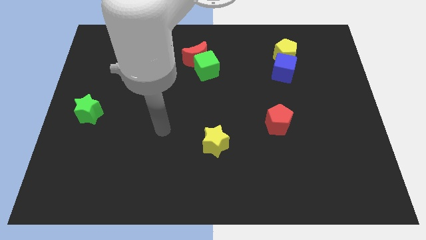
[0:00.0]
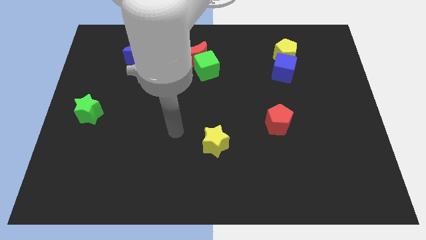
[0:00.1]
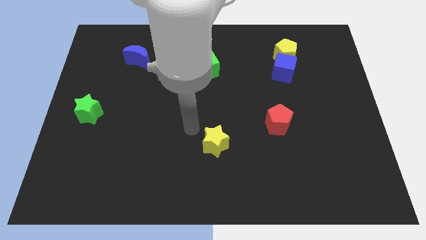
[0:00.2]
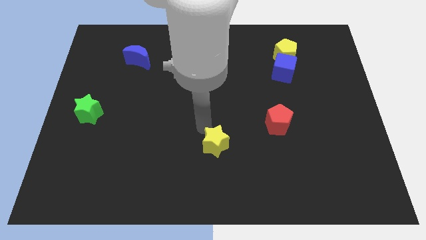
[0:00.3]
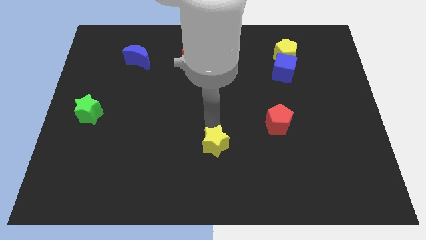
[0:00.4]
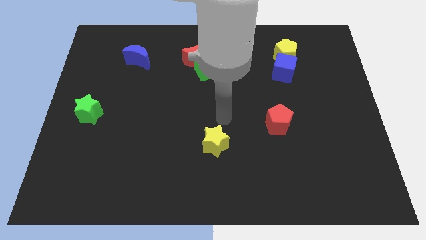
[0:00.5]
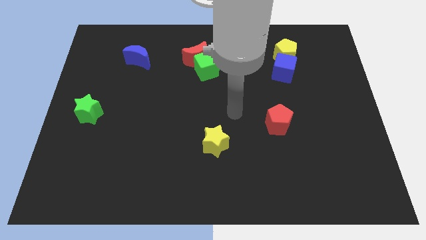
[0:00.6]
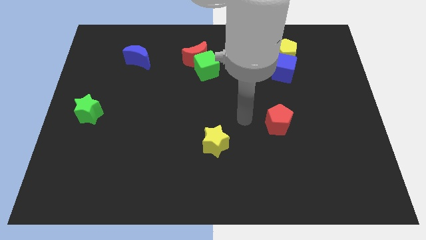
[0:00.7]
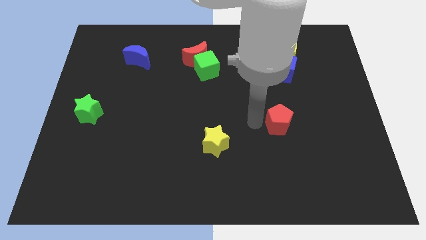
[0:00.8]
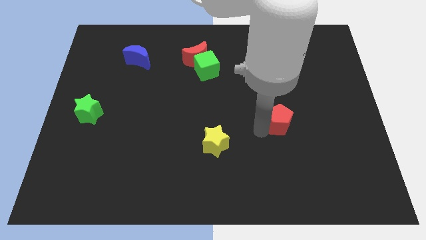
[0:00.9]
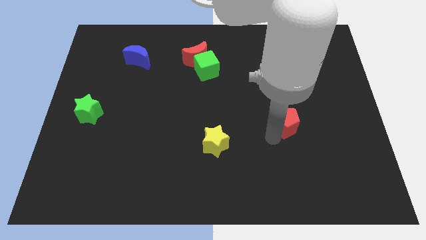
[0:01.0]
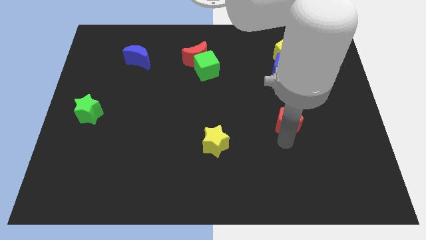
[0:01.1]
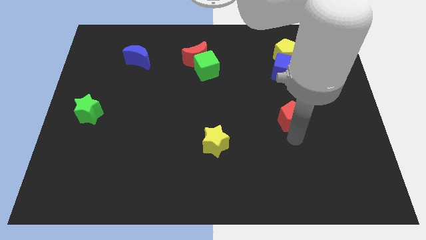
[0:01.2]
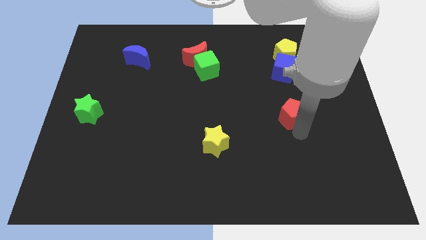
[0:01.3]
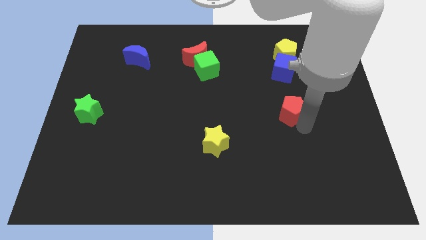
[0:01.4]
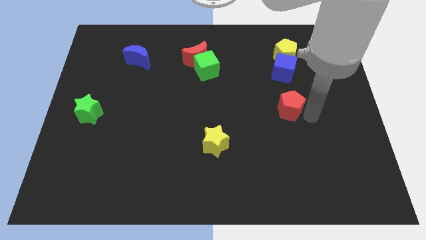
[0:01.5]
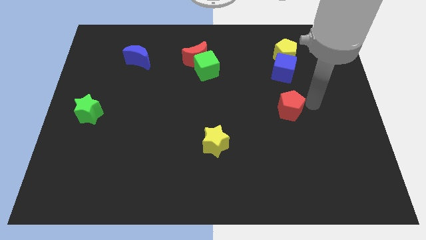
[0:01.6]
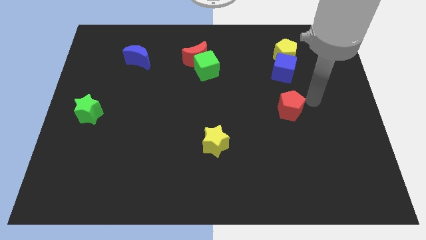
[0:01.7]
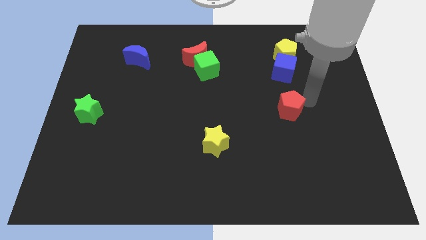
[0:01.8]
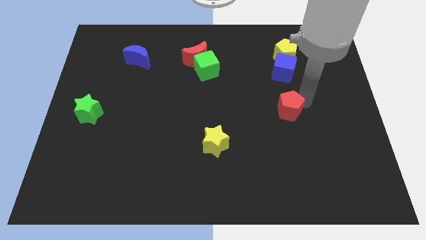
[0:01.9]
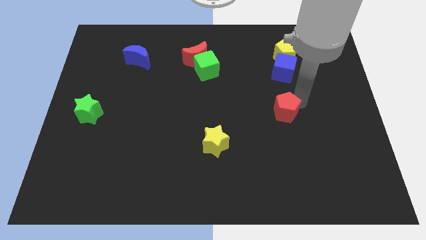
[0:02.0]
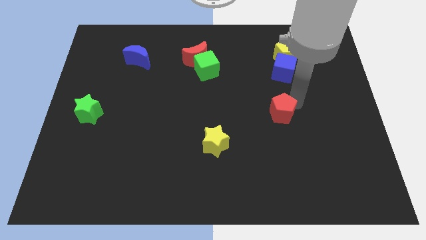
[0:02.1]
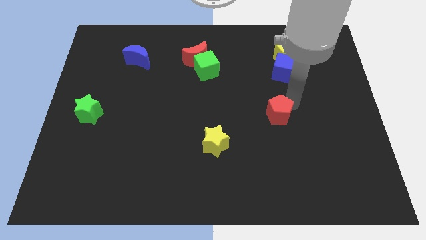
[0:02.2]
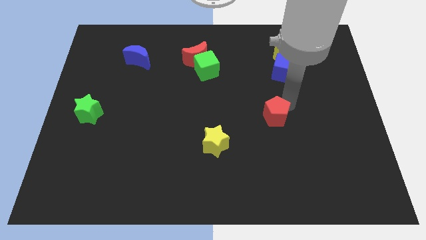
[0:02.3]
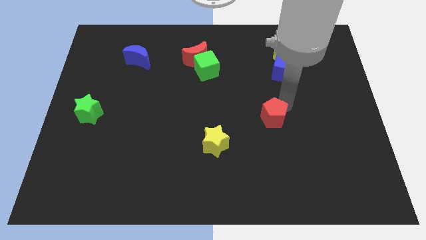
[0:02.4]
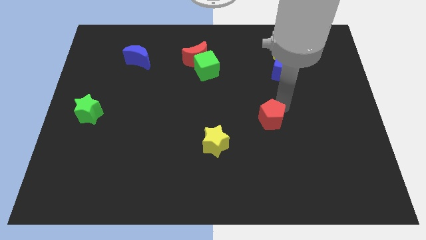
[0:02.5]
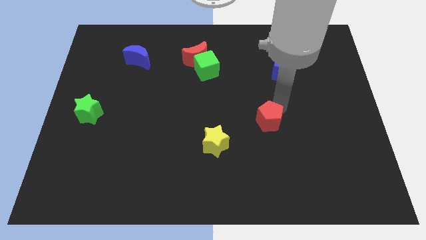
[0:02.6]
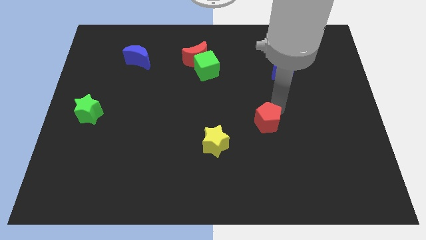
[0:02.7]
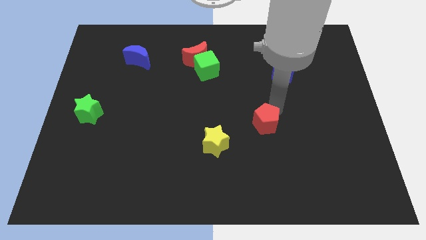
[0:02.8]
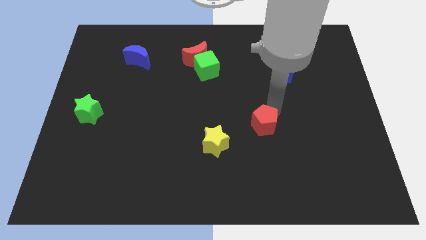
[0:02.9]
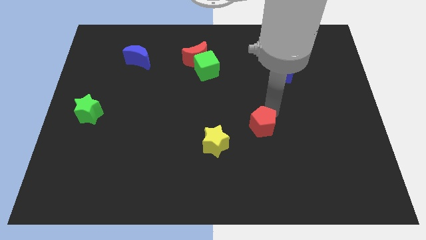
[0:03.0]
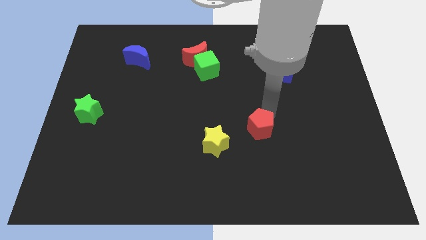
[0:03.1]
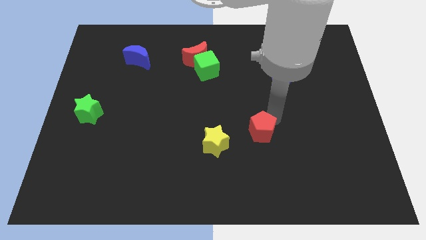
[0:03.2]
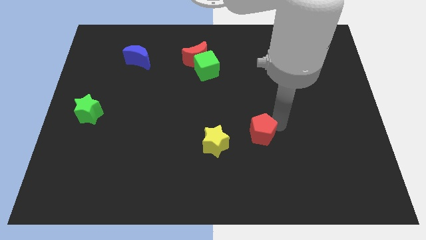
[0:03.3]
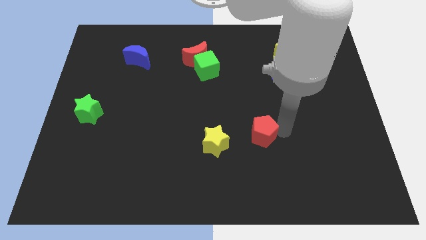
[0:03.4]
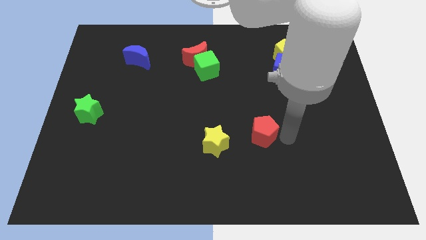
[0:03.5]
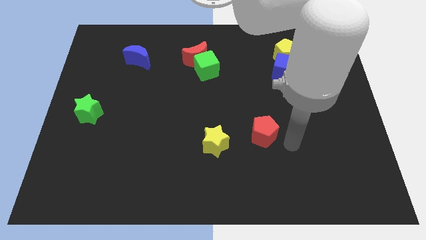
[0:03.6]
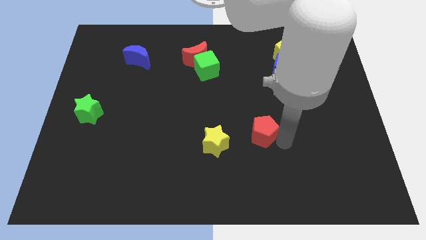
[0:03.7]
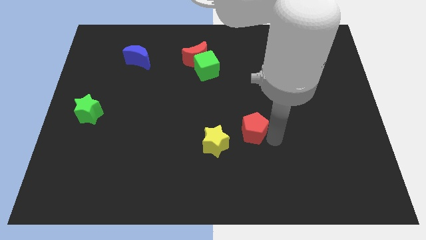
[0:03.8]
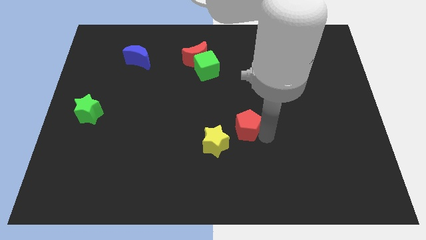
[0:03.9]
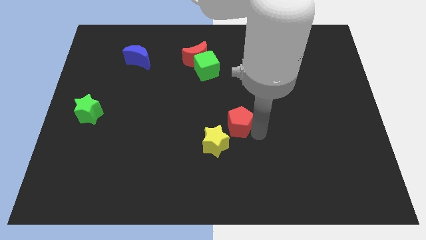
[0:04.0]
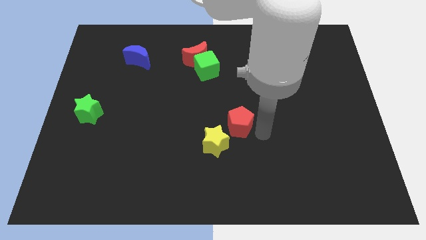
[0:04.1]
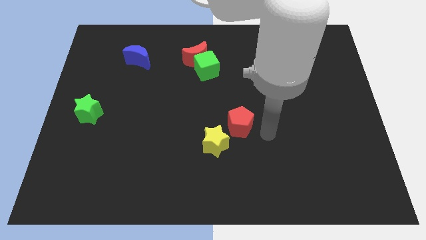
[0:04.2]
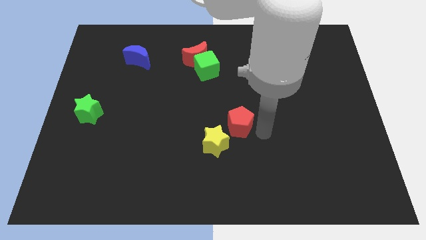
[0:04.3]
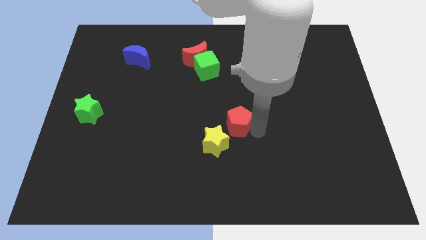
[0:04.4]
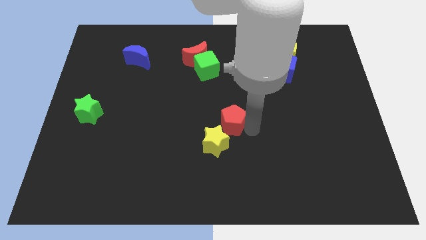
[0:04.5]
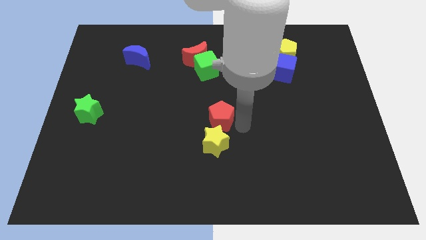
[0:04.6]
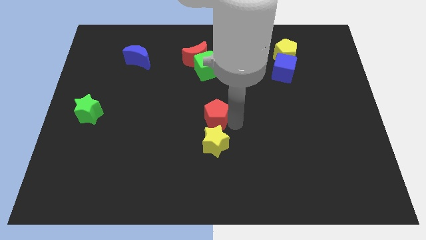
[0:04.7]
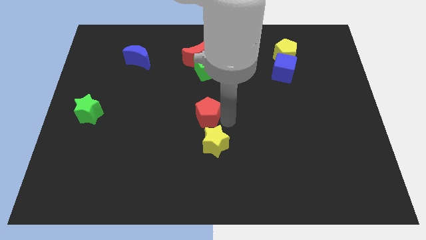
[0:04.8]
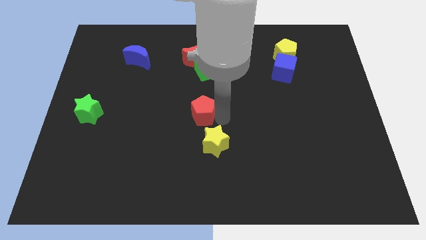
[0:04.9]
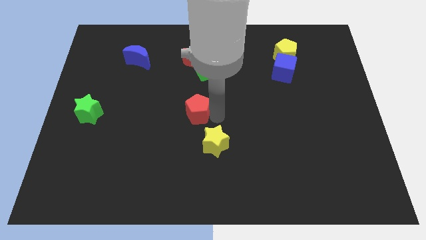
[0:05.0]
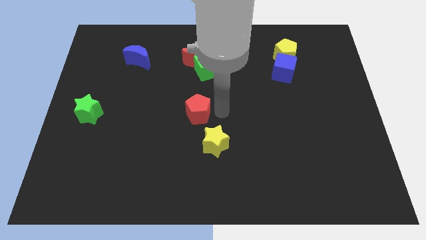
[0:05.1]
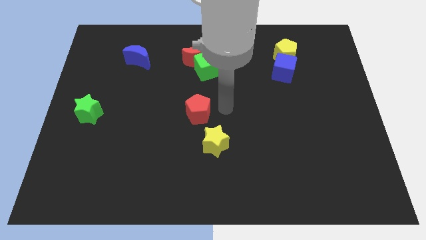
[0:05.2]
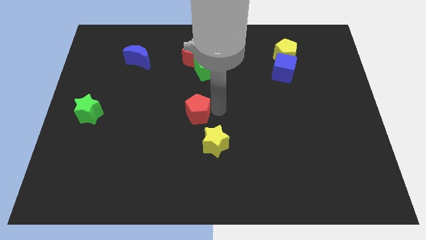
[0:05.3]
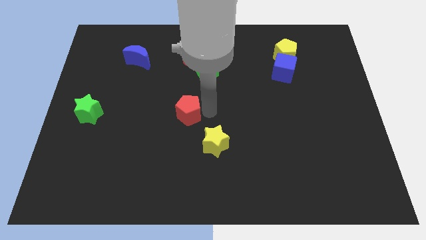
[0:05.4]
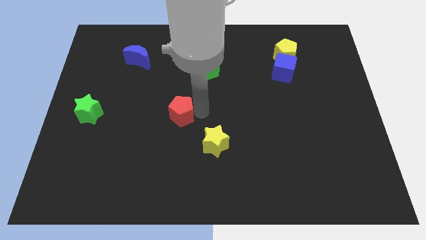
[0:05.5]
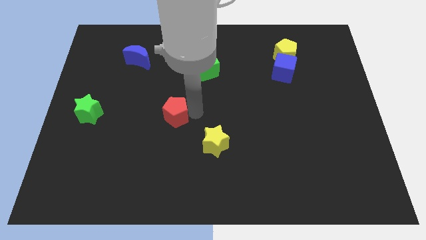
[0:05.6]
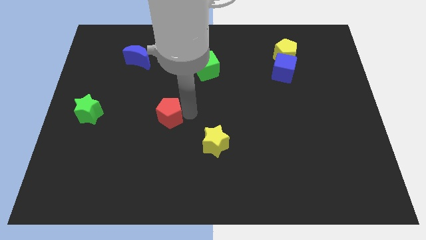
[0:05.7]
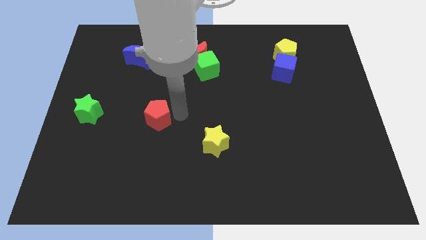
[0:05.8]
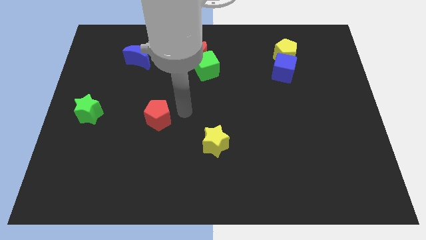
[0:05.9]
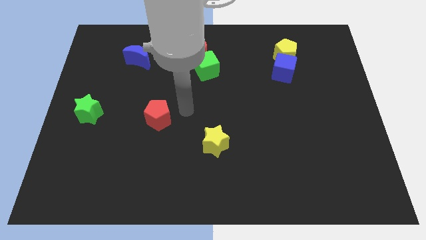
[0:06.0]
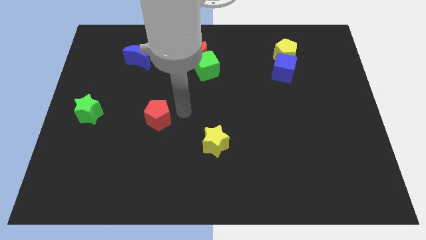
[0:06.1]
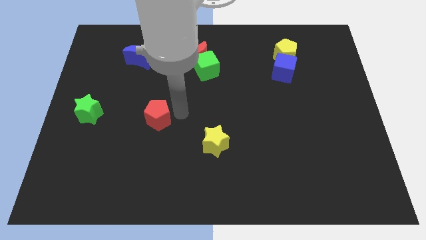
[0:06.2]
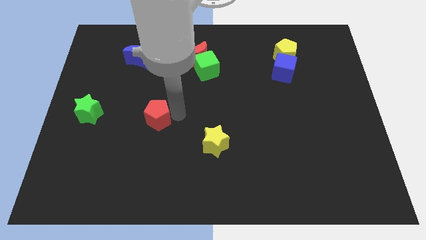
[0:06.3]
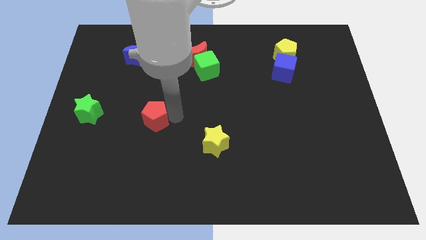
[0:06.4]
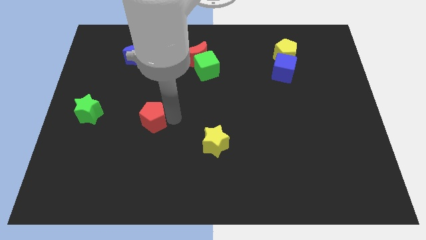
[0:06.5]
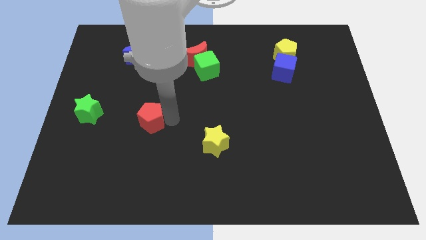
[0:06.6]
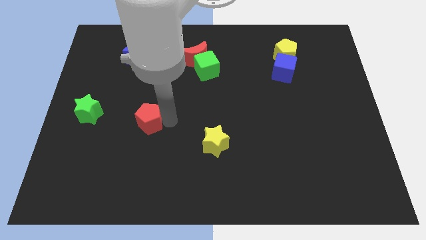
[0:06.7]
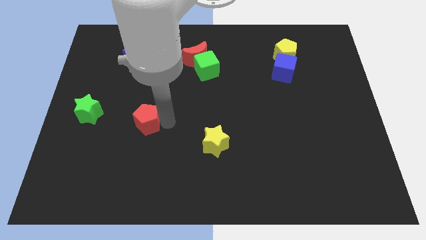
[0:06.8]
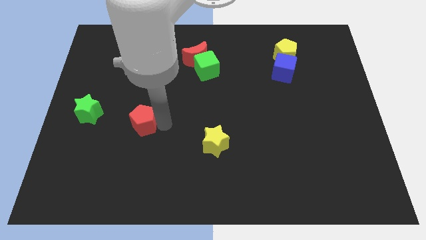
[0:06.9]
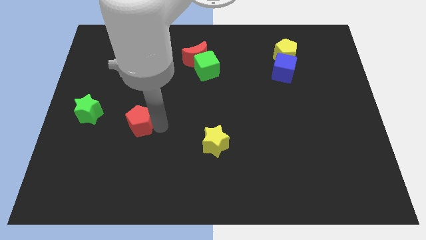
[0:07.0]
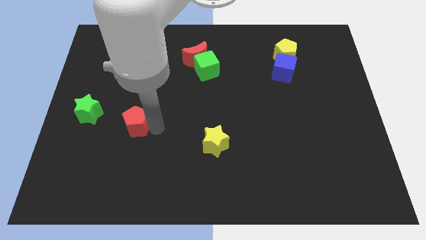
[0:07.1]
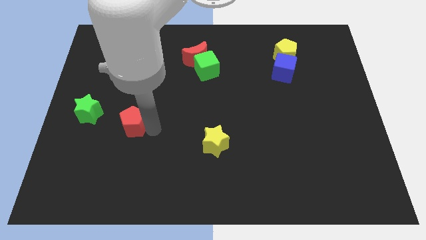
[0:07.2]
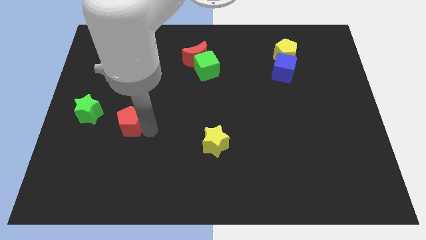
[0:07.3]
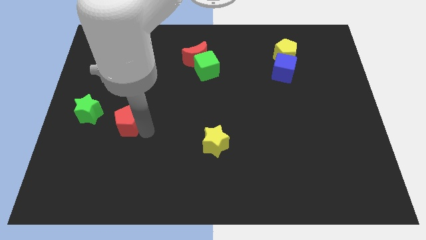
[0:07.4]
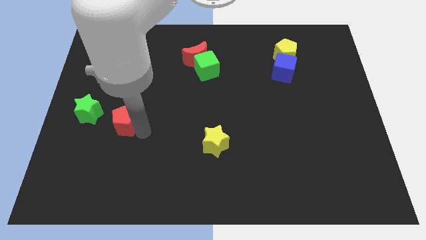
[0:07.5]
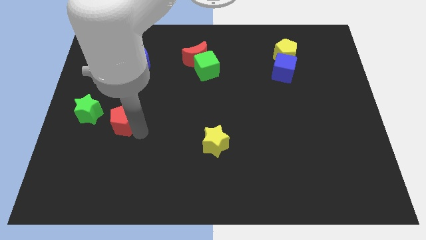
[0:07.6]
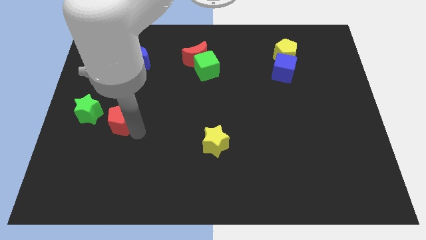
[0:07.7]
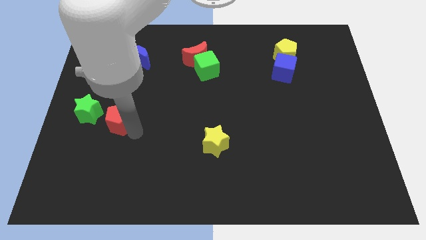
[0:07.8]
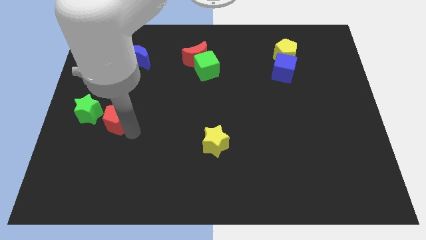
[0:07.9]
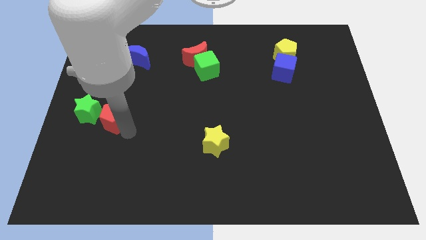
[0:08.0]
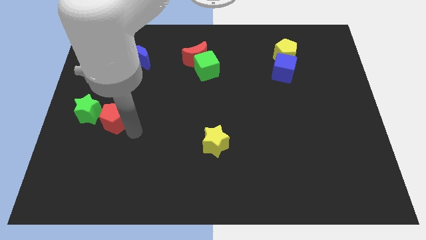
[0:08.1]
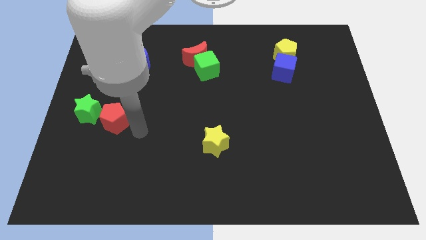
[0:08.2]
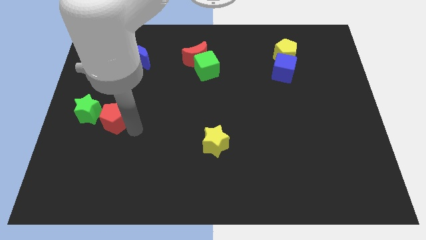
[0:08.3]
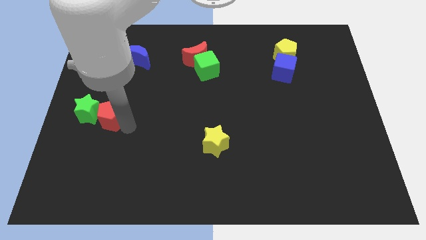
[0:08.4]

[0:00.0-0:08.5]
put the red pentagon to the green star
